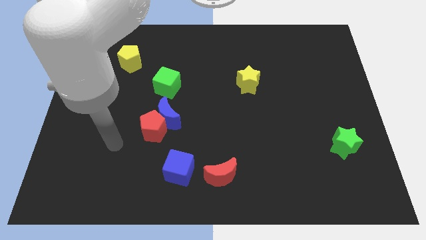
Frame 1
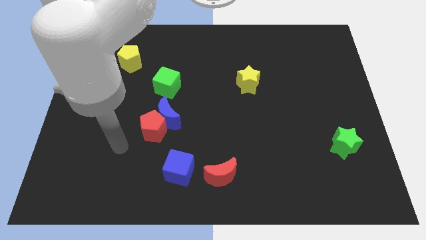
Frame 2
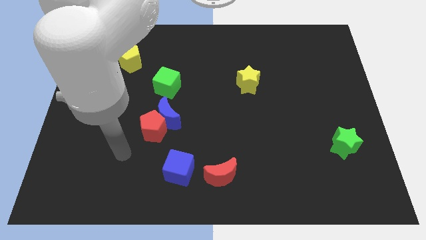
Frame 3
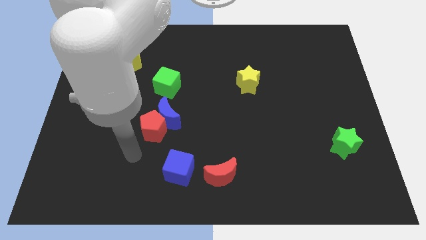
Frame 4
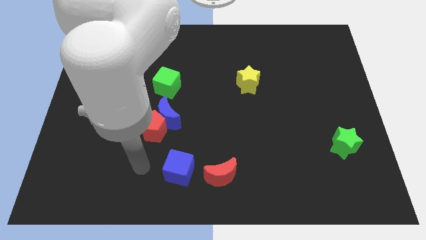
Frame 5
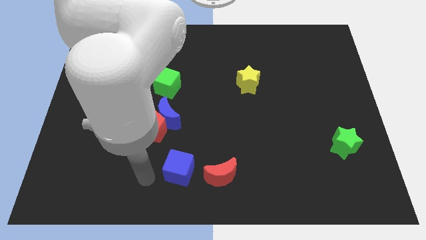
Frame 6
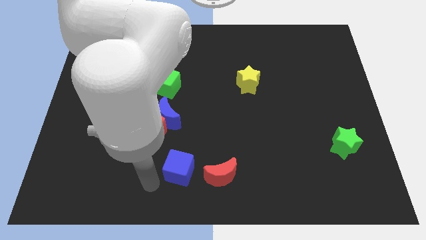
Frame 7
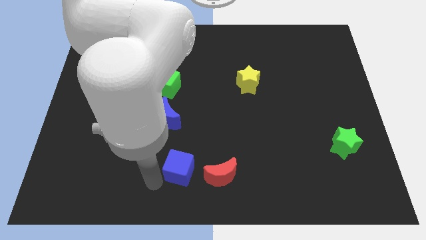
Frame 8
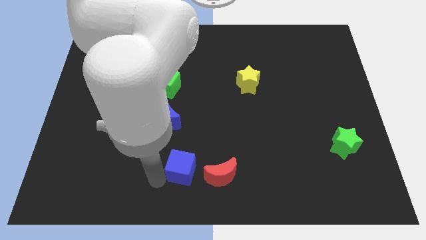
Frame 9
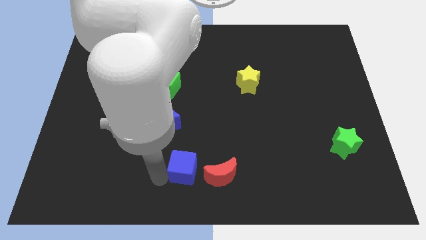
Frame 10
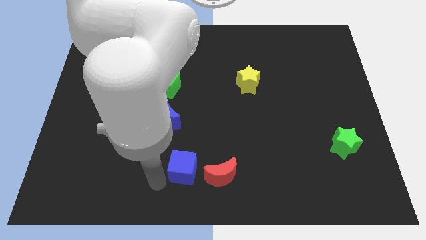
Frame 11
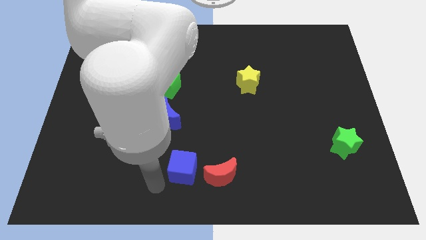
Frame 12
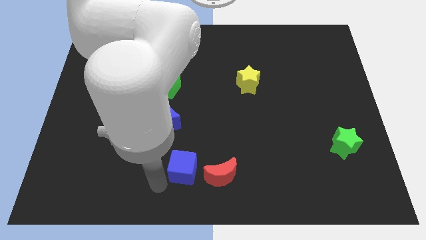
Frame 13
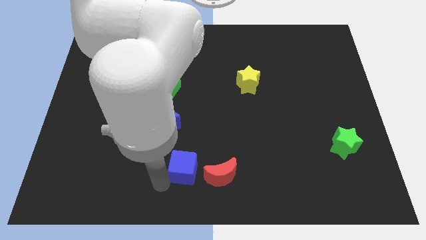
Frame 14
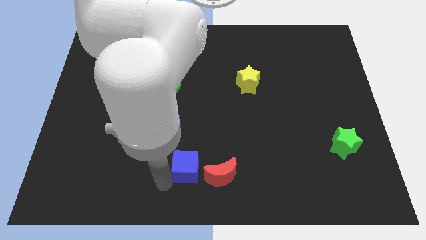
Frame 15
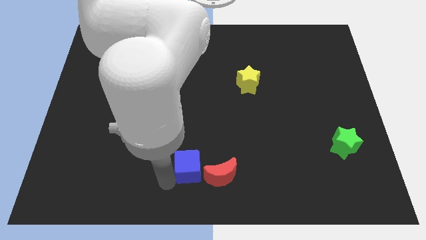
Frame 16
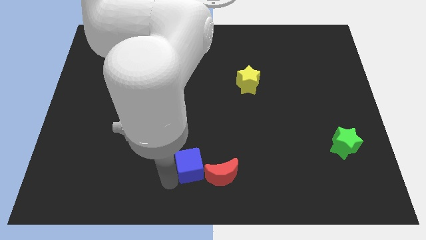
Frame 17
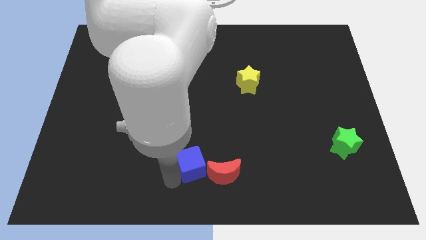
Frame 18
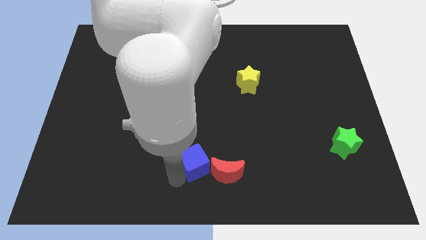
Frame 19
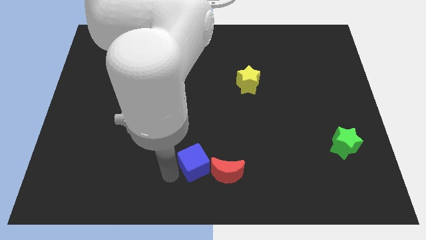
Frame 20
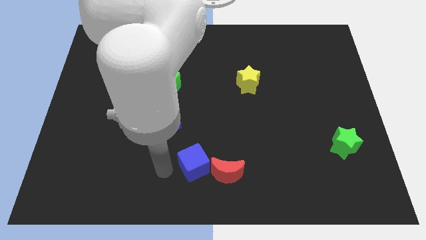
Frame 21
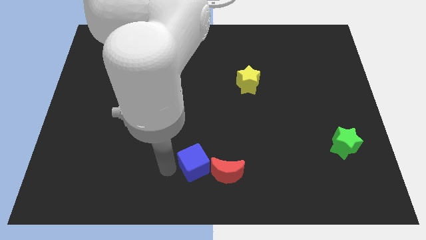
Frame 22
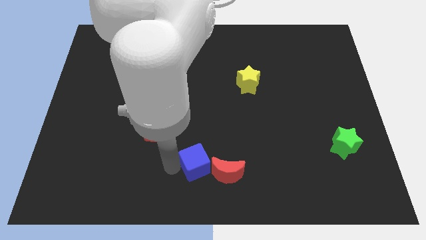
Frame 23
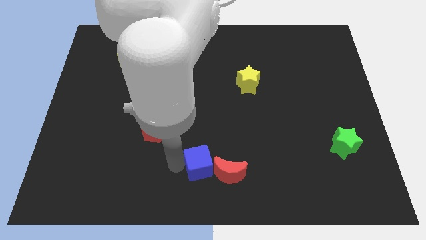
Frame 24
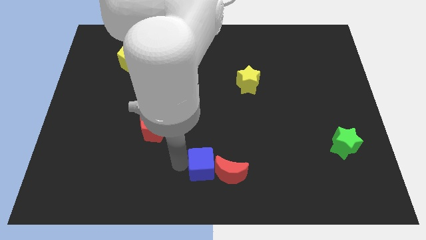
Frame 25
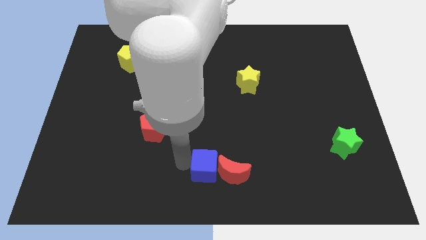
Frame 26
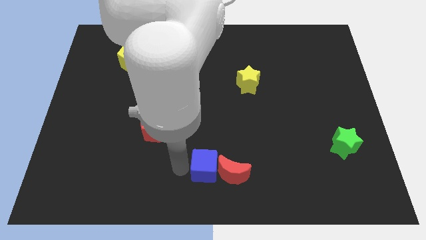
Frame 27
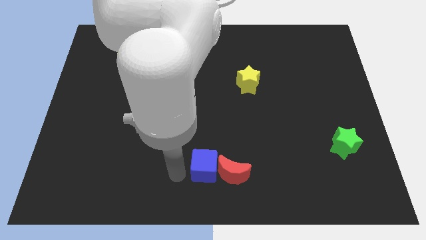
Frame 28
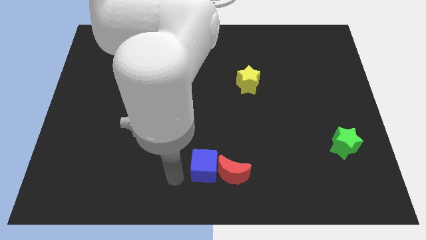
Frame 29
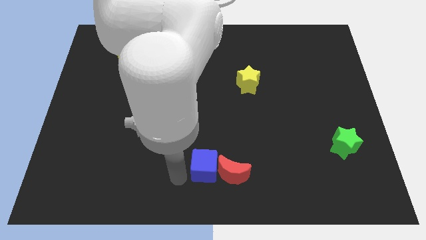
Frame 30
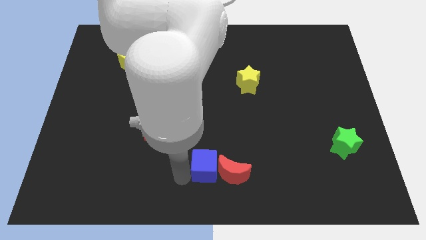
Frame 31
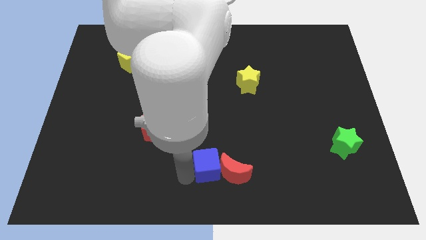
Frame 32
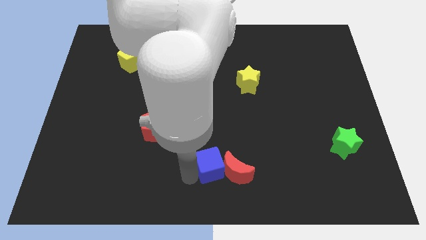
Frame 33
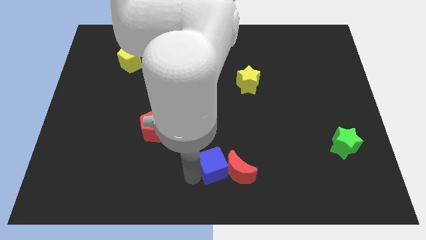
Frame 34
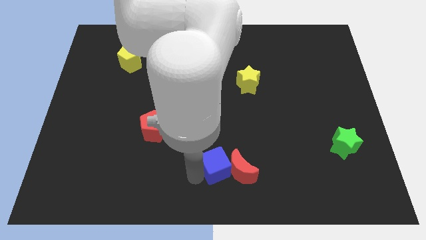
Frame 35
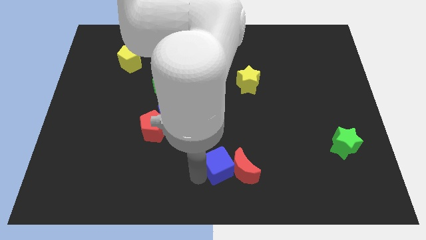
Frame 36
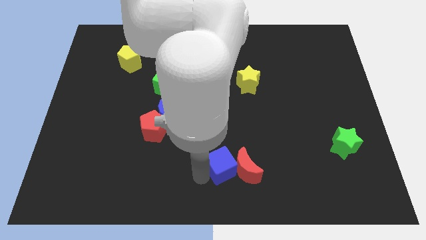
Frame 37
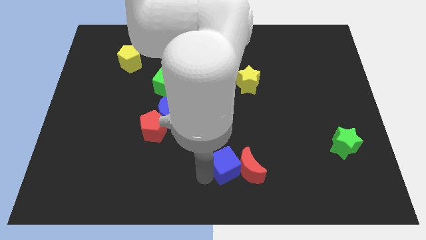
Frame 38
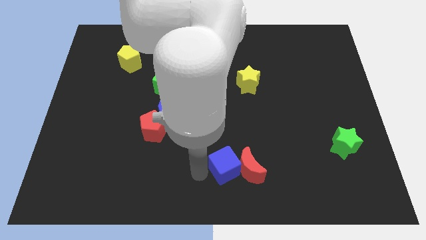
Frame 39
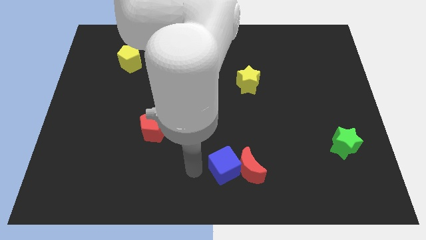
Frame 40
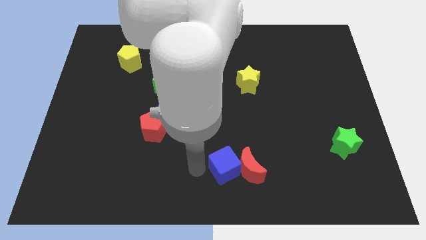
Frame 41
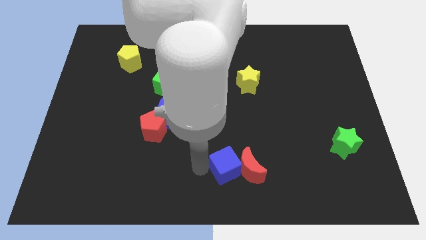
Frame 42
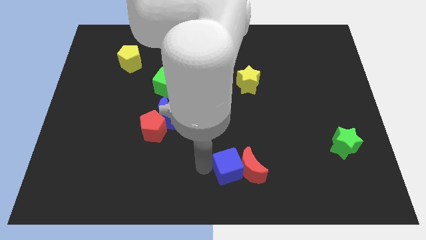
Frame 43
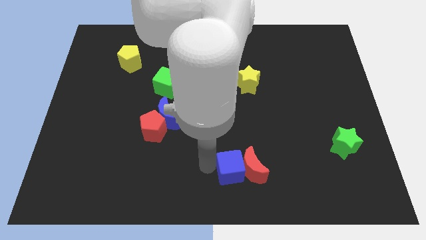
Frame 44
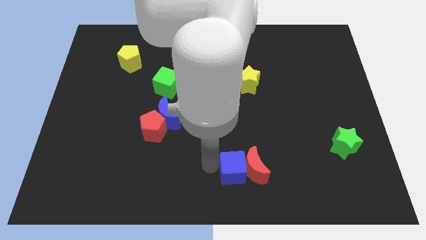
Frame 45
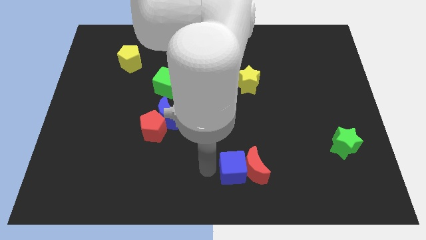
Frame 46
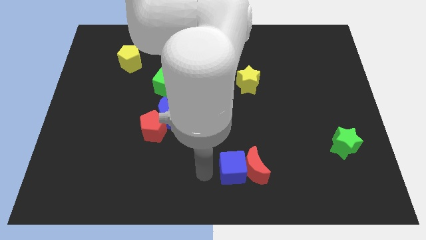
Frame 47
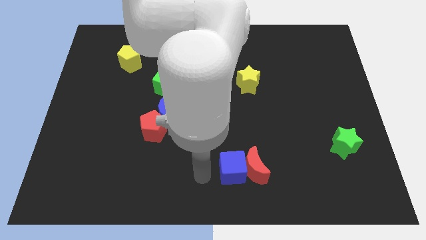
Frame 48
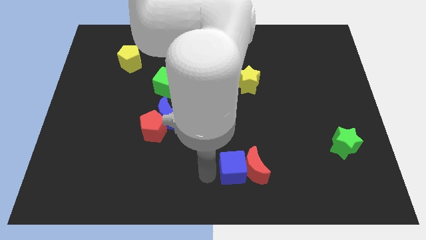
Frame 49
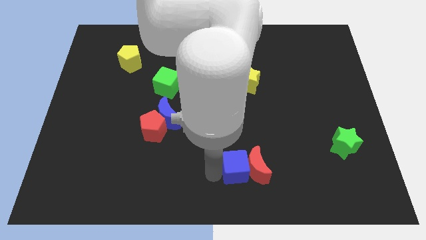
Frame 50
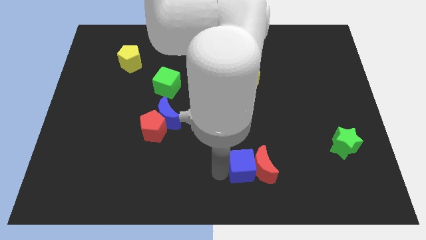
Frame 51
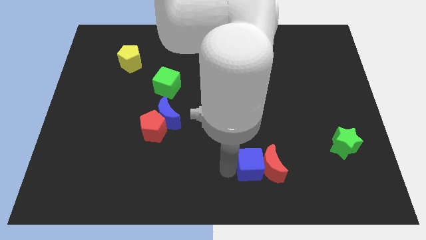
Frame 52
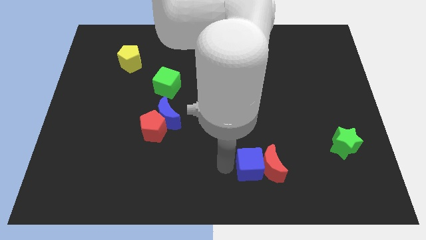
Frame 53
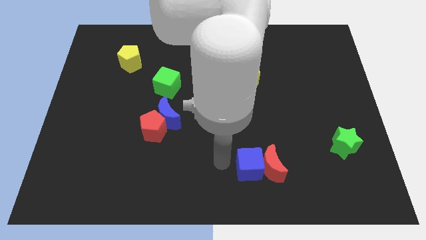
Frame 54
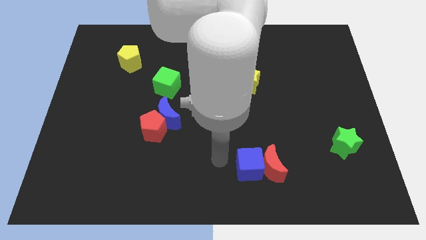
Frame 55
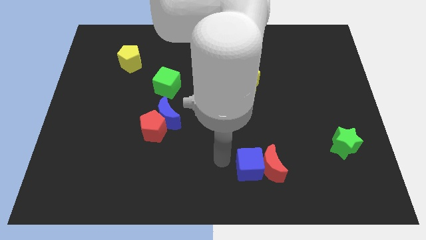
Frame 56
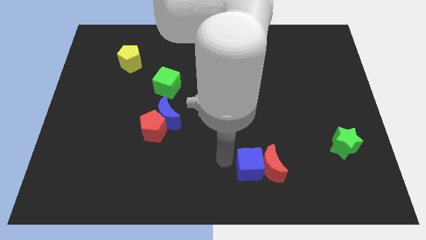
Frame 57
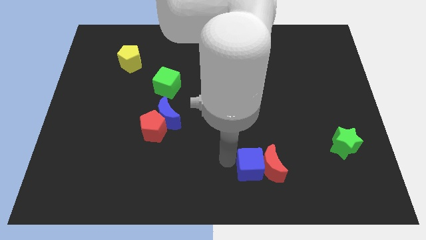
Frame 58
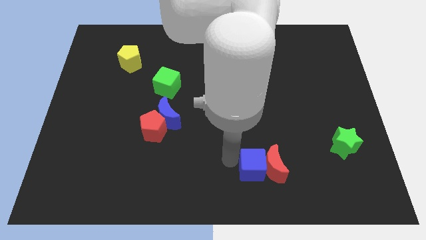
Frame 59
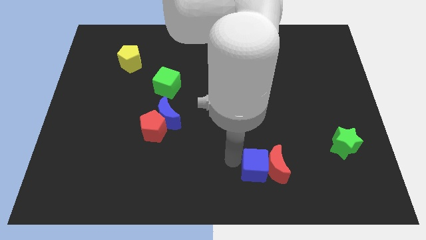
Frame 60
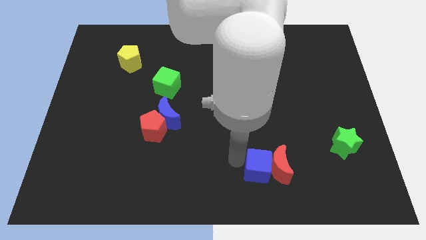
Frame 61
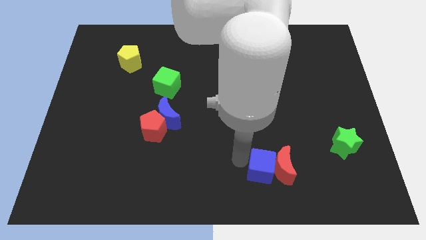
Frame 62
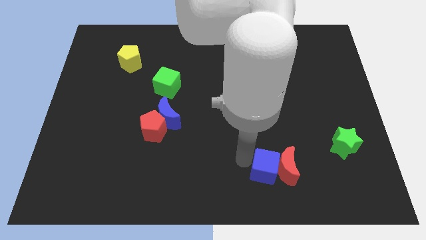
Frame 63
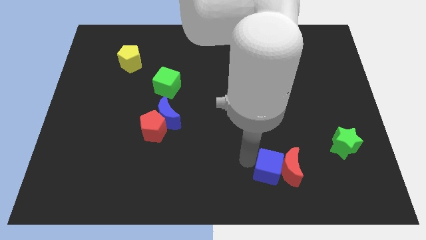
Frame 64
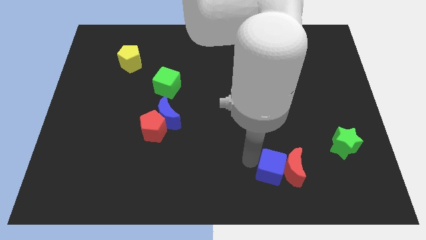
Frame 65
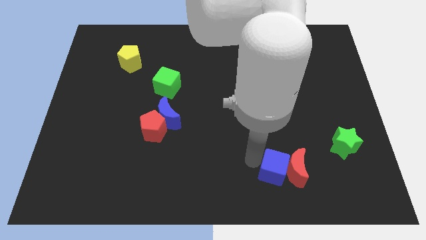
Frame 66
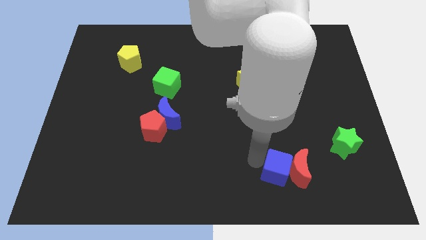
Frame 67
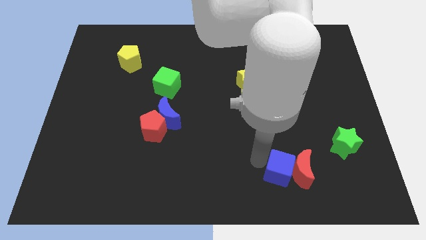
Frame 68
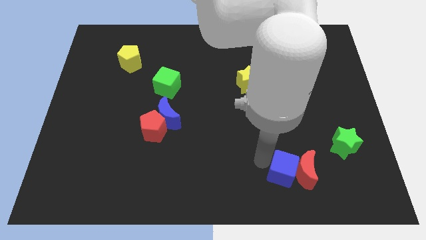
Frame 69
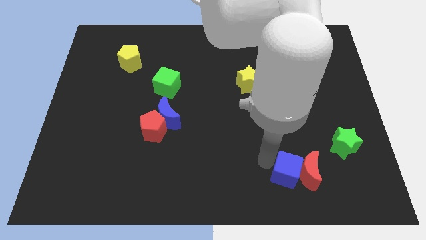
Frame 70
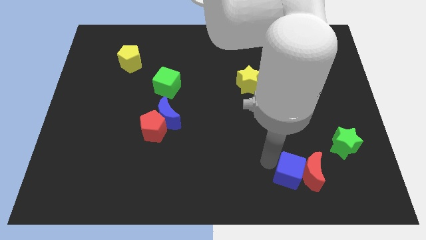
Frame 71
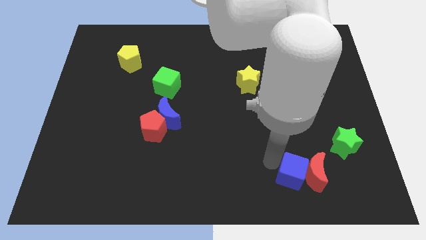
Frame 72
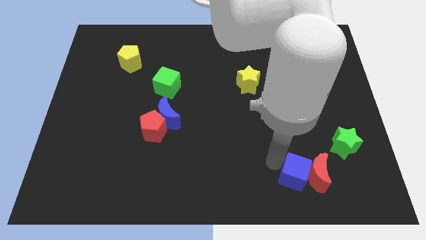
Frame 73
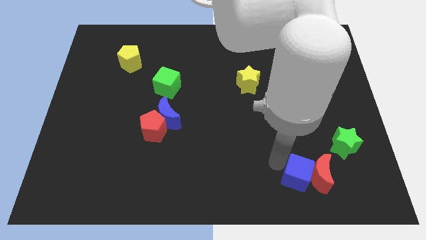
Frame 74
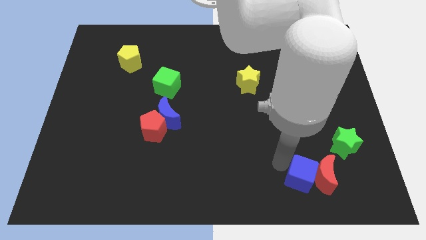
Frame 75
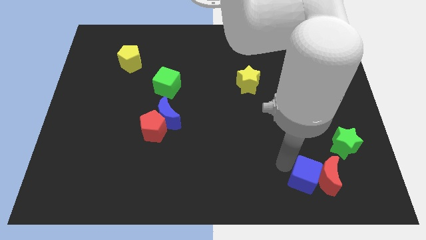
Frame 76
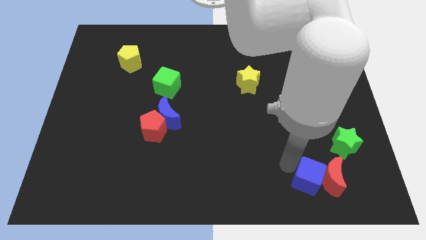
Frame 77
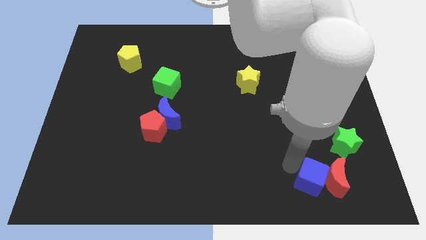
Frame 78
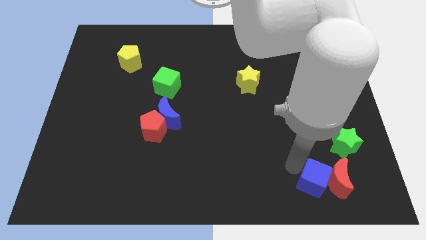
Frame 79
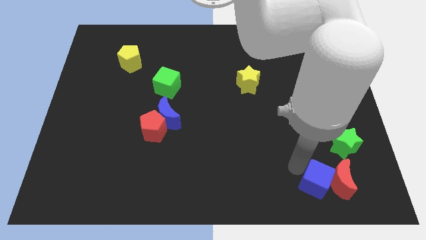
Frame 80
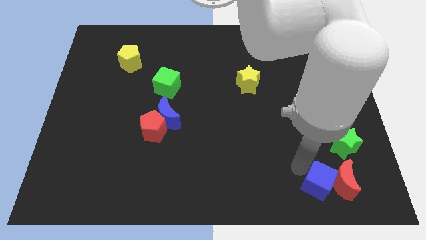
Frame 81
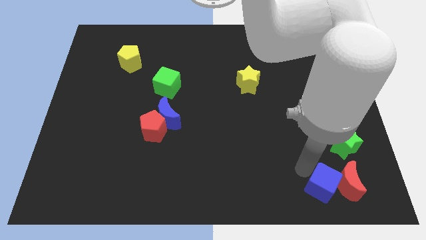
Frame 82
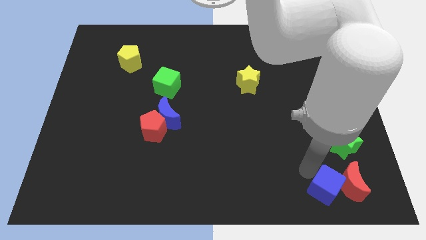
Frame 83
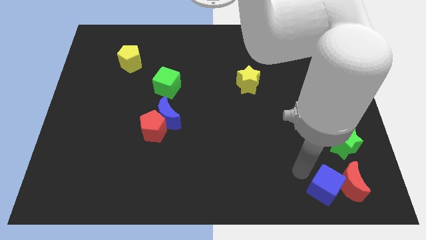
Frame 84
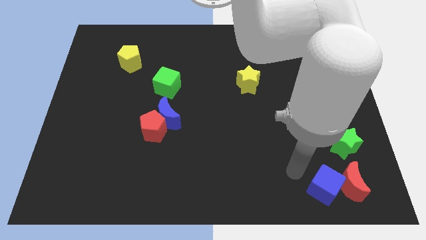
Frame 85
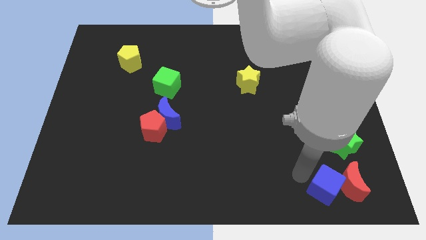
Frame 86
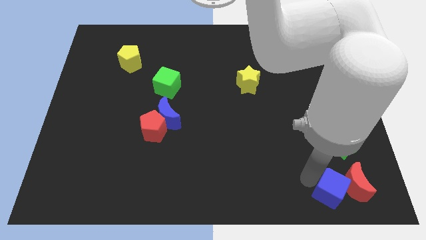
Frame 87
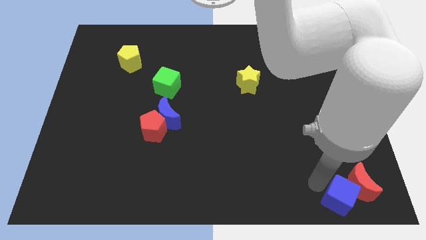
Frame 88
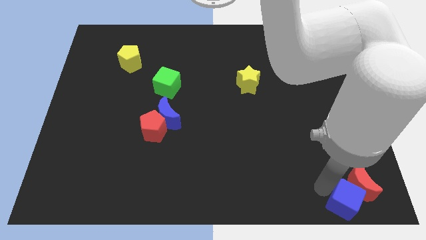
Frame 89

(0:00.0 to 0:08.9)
push the blue cube to the lower right corner
